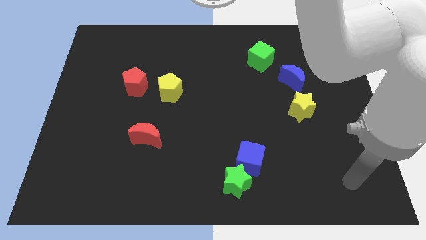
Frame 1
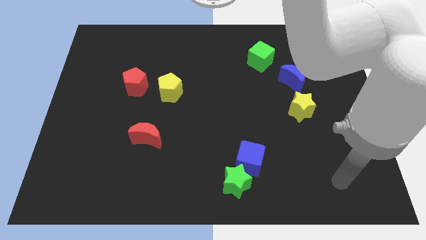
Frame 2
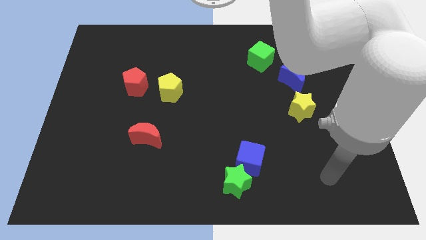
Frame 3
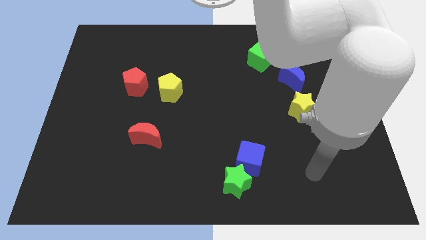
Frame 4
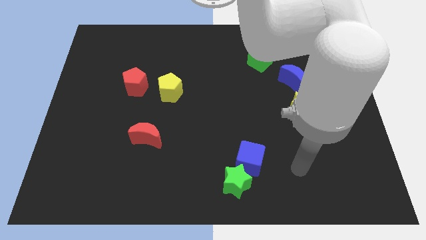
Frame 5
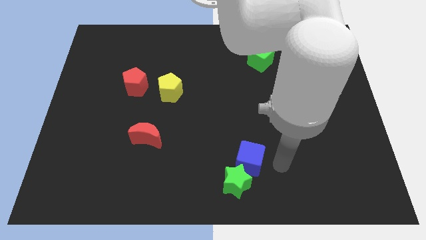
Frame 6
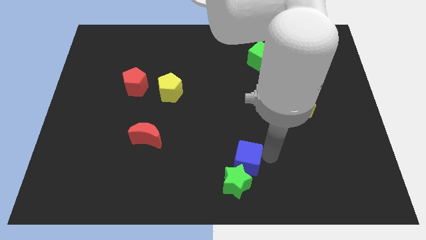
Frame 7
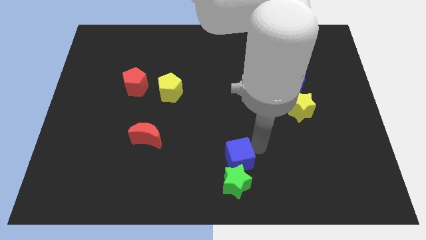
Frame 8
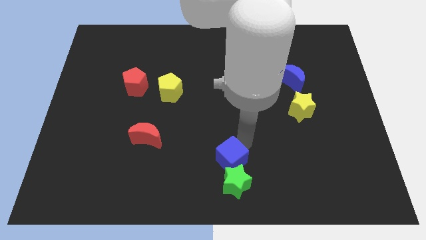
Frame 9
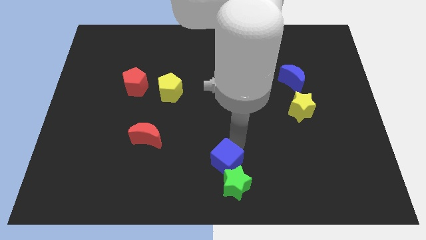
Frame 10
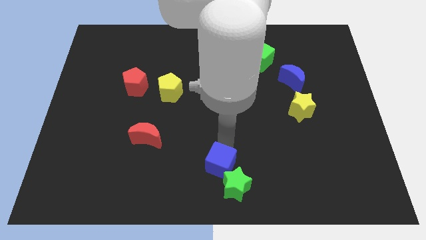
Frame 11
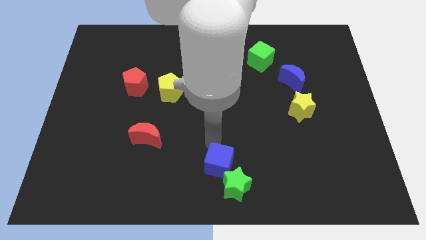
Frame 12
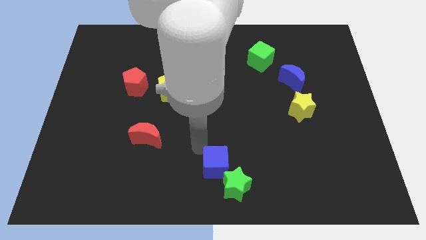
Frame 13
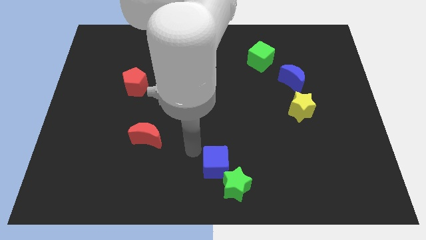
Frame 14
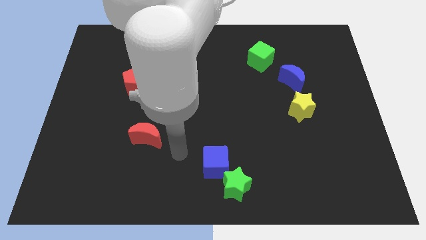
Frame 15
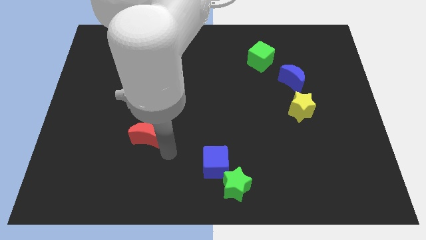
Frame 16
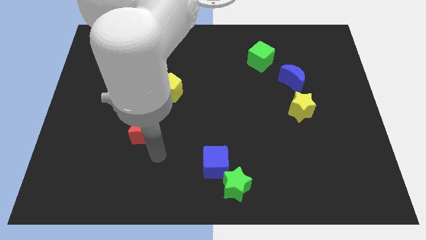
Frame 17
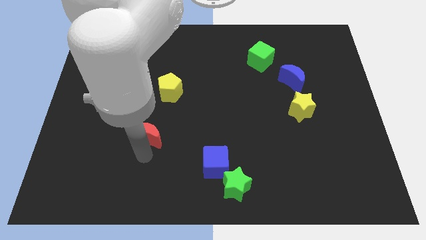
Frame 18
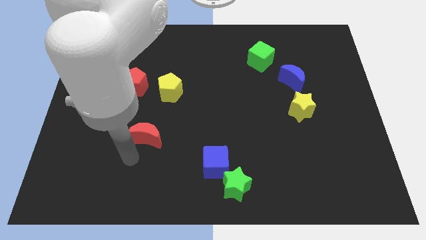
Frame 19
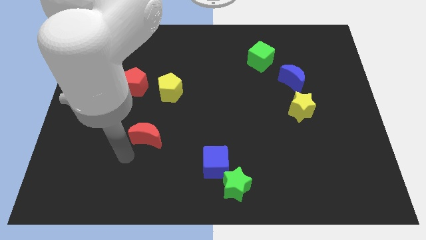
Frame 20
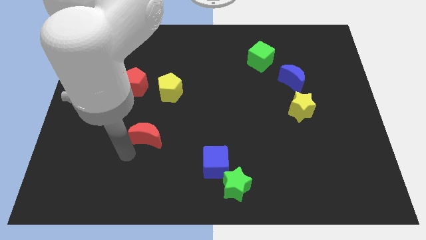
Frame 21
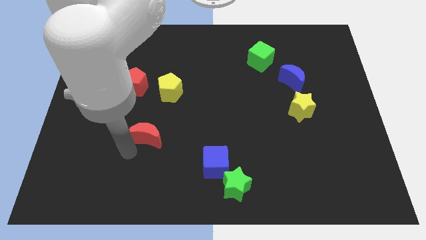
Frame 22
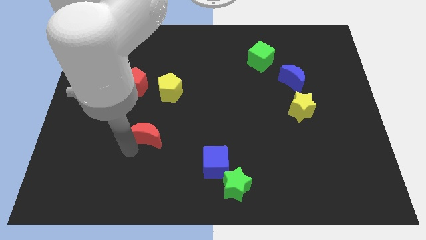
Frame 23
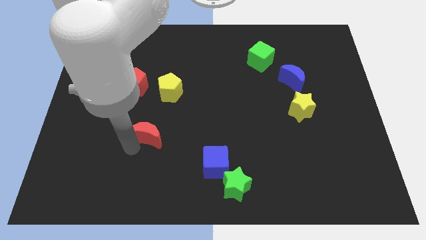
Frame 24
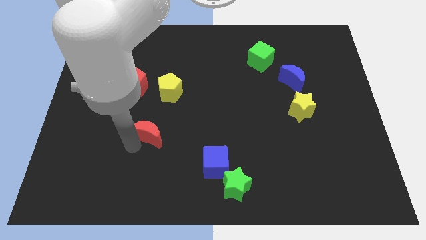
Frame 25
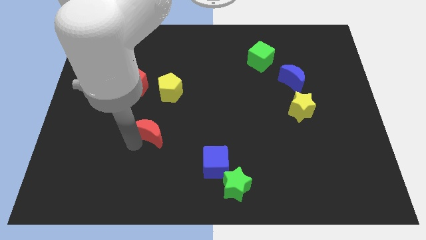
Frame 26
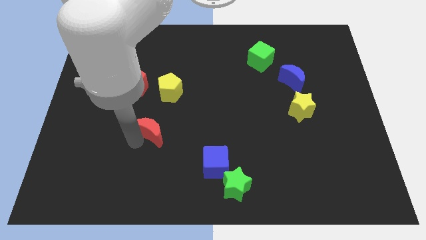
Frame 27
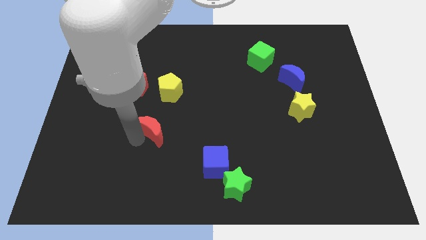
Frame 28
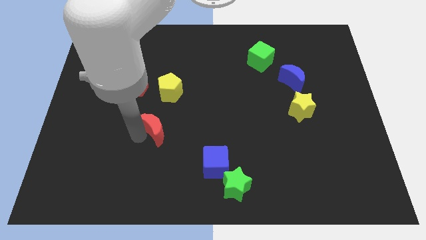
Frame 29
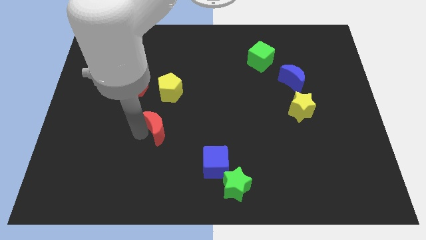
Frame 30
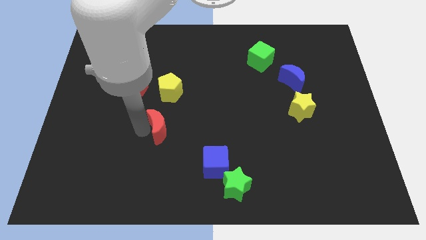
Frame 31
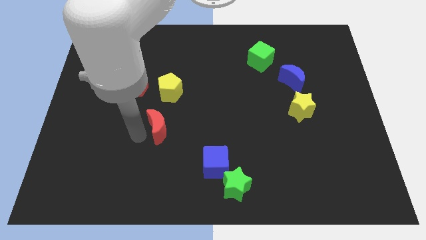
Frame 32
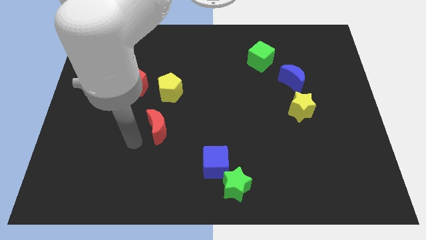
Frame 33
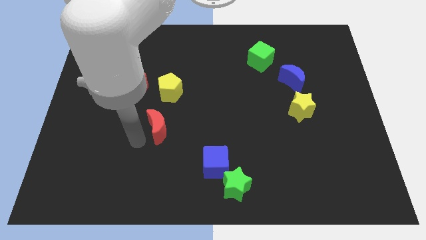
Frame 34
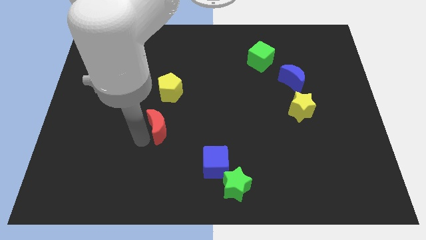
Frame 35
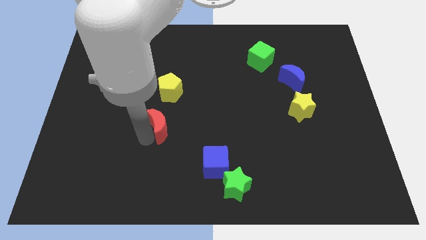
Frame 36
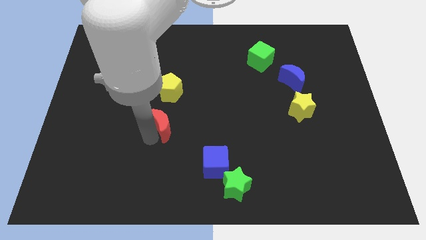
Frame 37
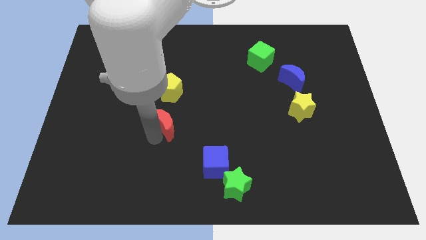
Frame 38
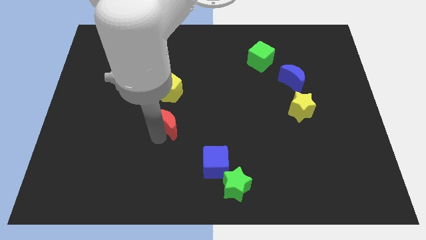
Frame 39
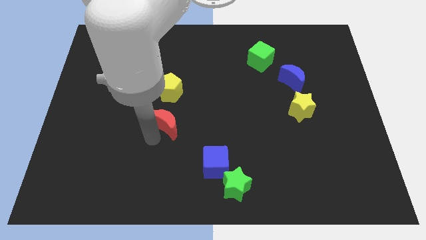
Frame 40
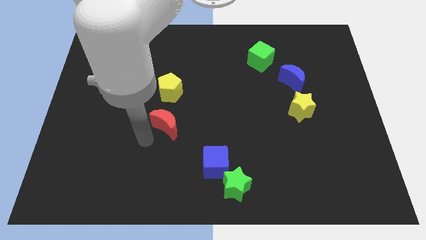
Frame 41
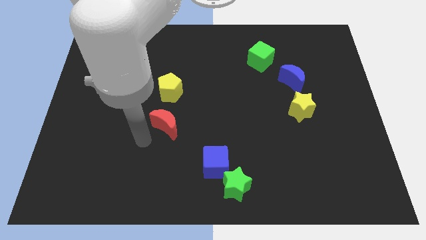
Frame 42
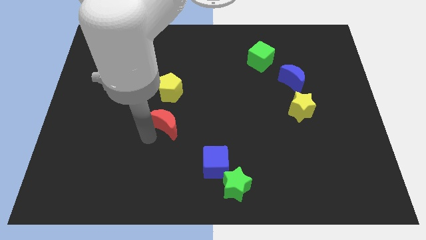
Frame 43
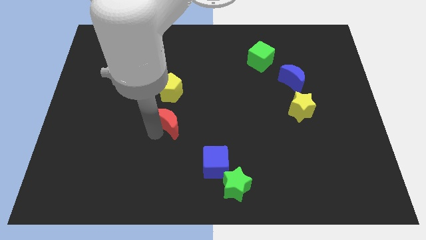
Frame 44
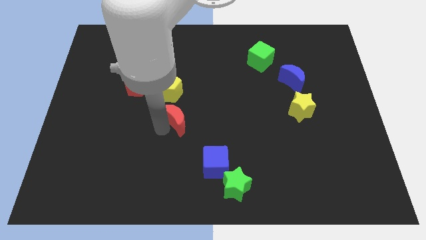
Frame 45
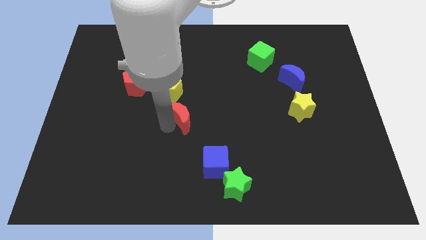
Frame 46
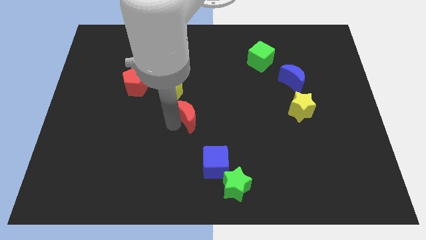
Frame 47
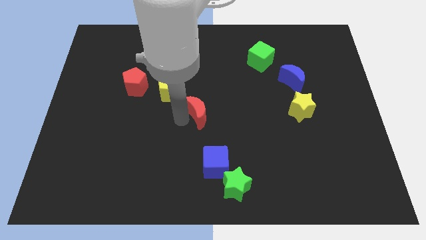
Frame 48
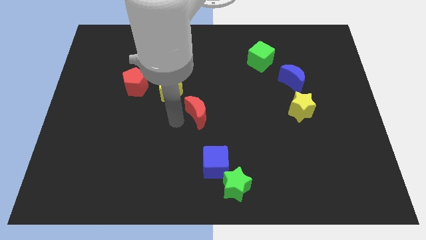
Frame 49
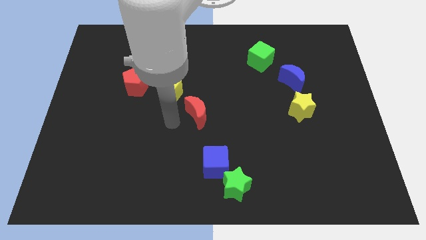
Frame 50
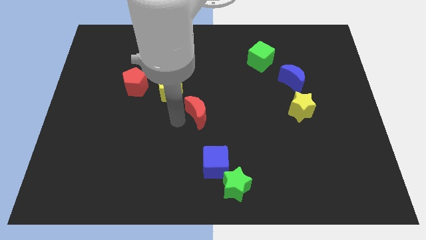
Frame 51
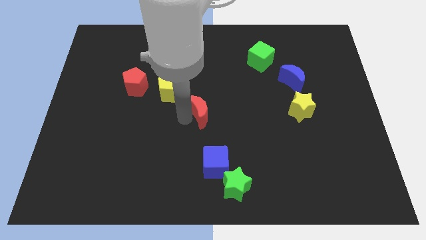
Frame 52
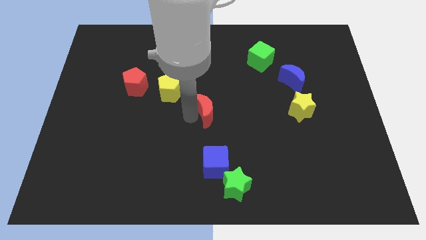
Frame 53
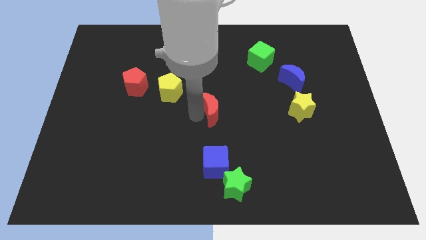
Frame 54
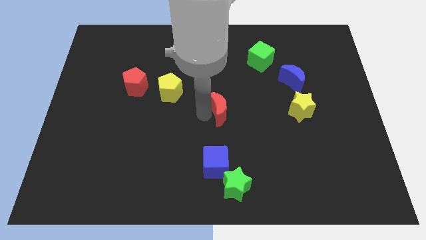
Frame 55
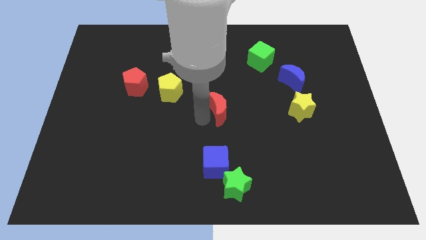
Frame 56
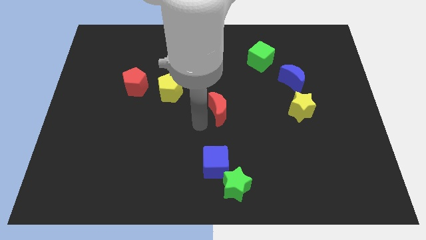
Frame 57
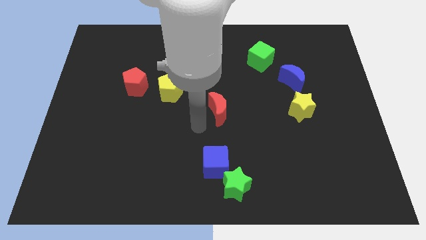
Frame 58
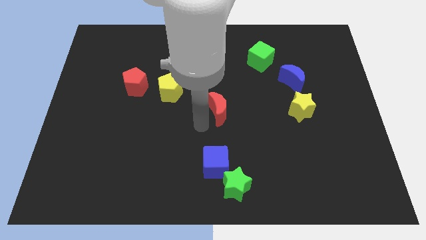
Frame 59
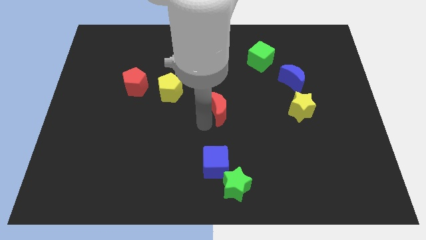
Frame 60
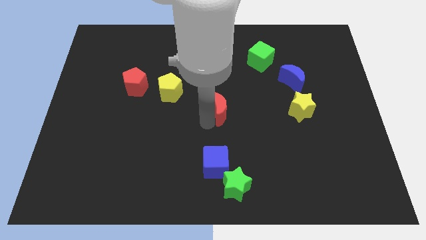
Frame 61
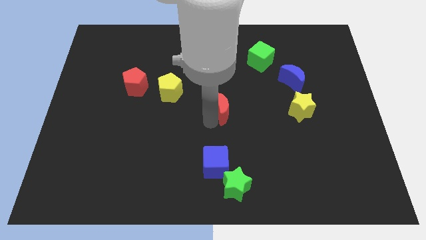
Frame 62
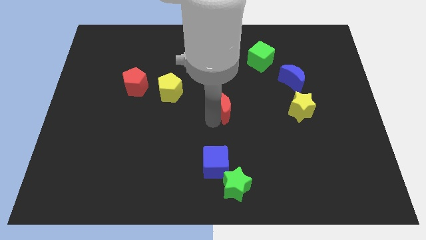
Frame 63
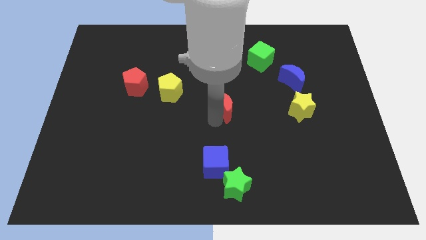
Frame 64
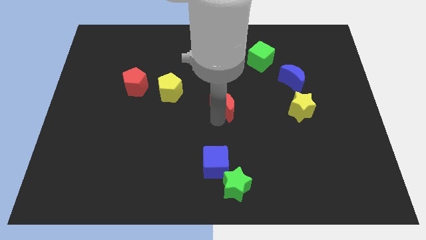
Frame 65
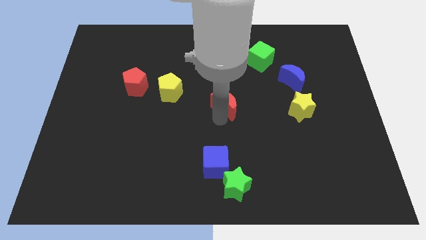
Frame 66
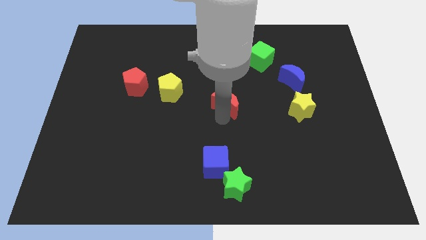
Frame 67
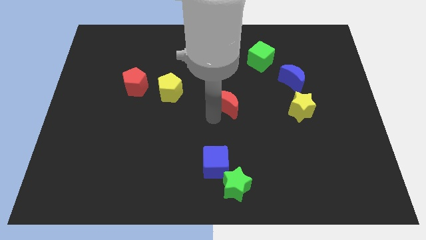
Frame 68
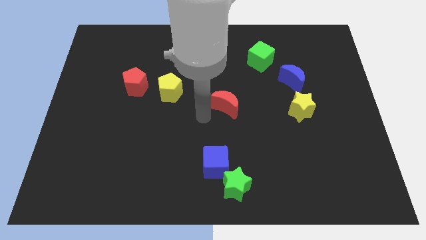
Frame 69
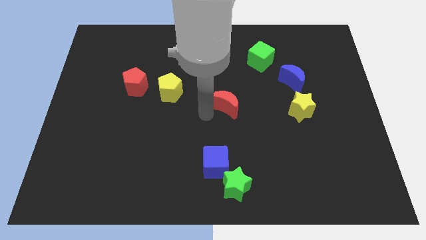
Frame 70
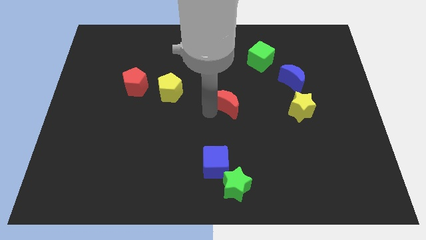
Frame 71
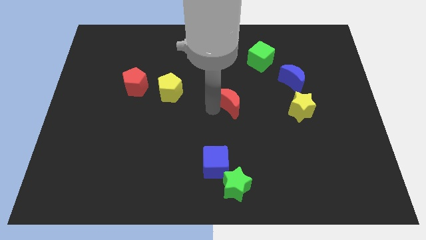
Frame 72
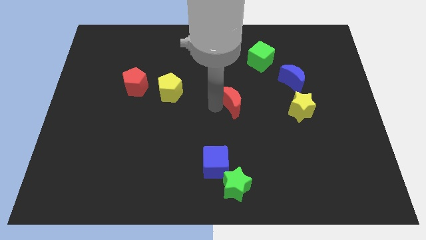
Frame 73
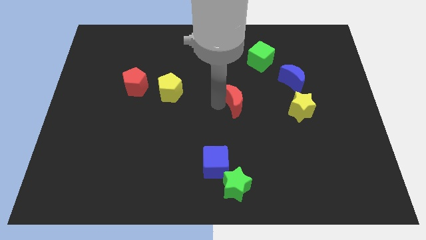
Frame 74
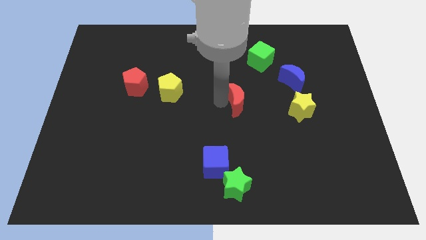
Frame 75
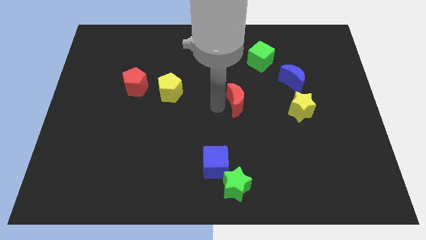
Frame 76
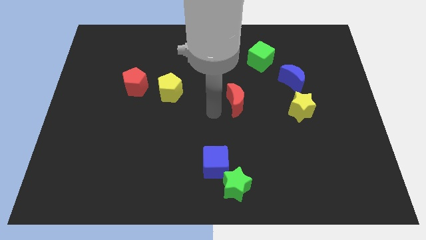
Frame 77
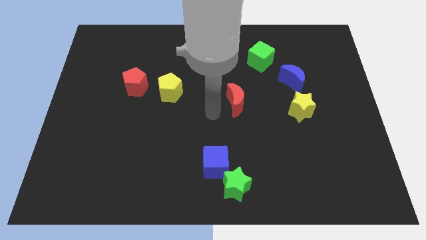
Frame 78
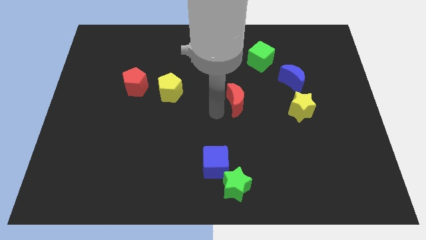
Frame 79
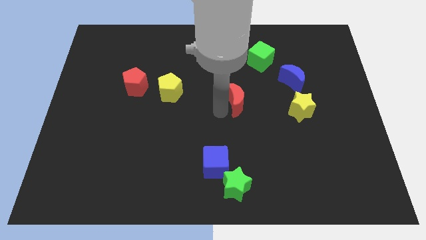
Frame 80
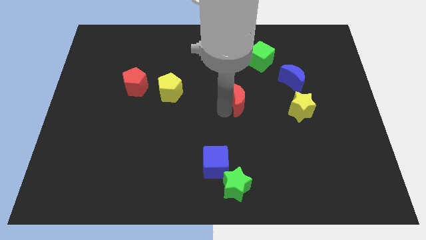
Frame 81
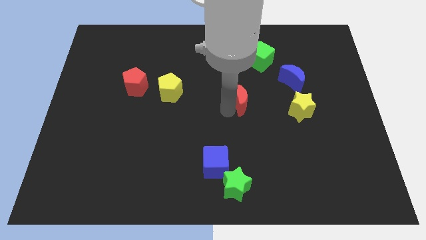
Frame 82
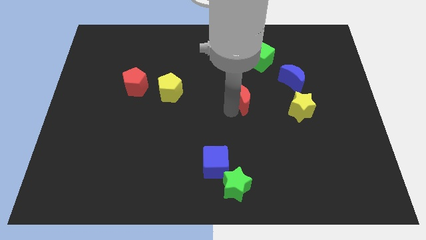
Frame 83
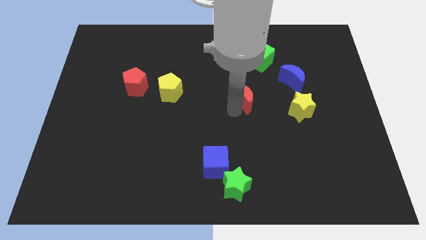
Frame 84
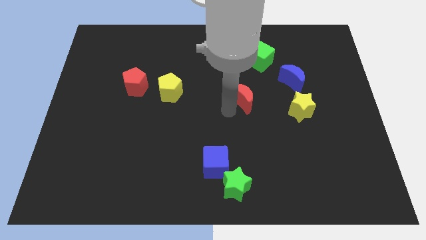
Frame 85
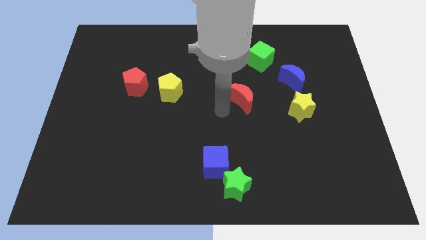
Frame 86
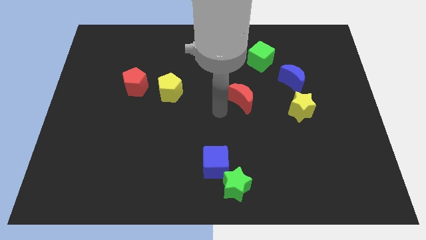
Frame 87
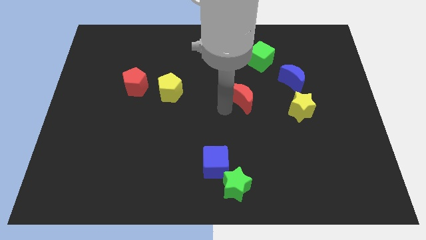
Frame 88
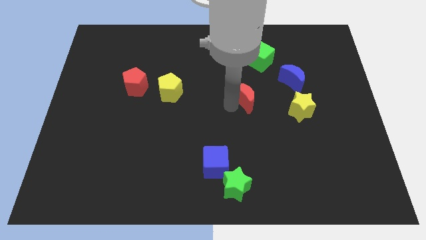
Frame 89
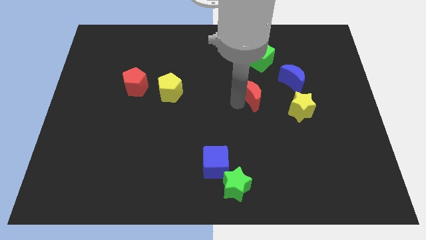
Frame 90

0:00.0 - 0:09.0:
put the red moon to the bottom of the green cube
